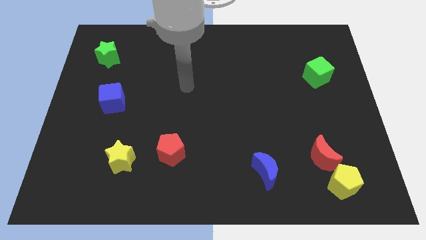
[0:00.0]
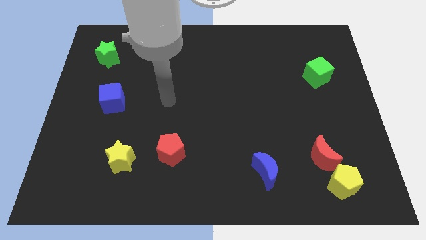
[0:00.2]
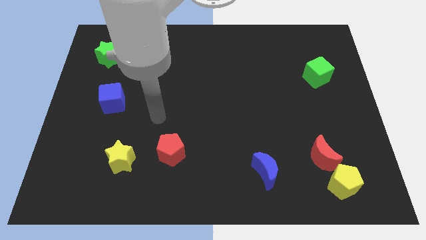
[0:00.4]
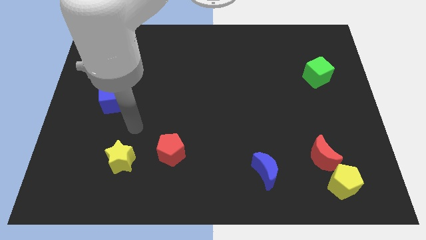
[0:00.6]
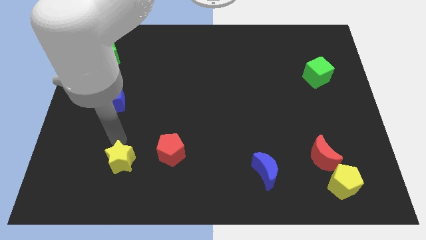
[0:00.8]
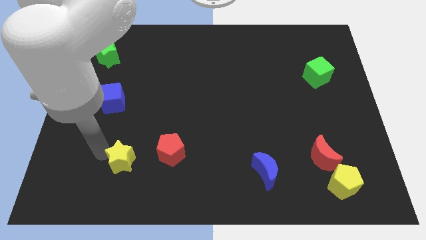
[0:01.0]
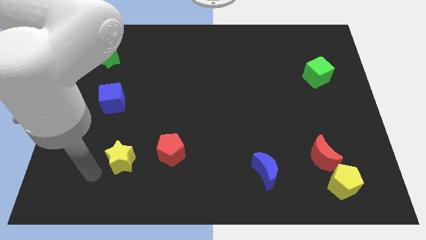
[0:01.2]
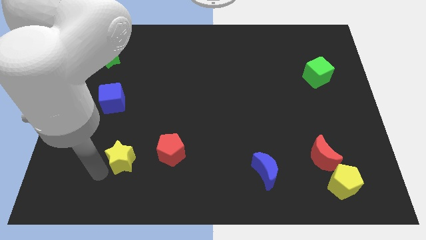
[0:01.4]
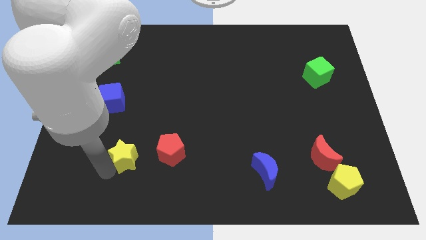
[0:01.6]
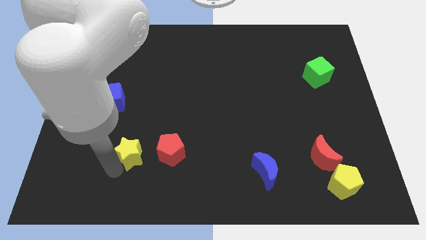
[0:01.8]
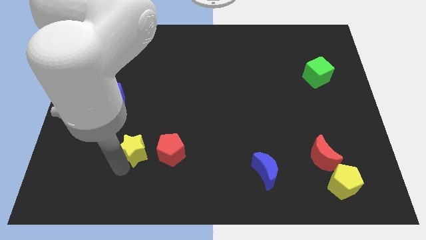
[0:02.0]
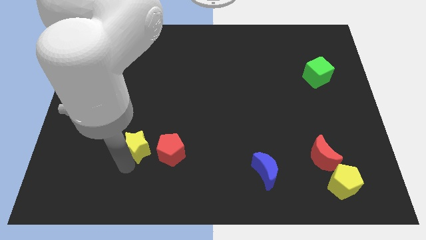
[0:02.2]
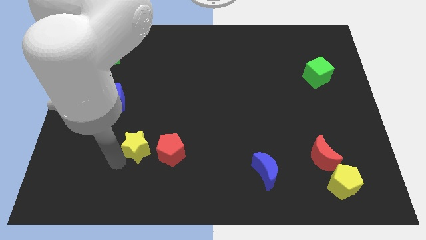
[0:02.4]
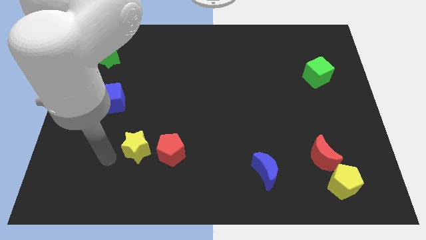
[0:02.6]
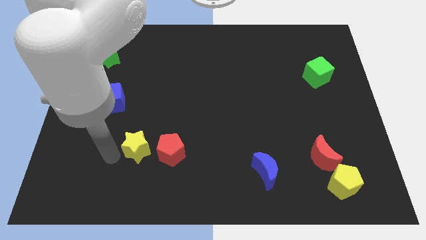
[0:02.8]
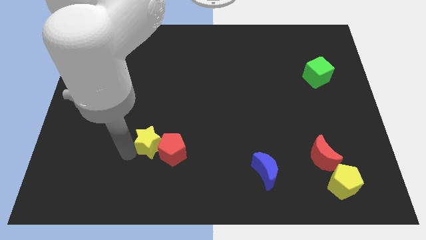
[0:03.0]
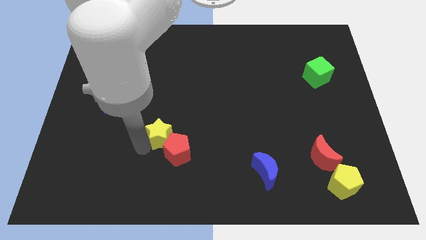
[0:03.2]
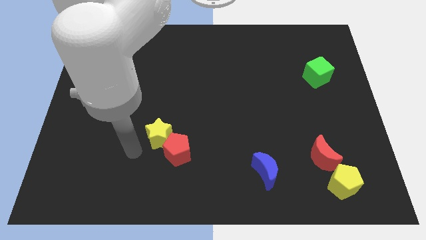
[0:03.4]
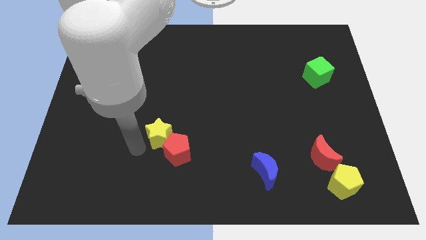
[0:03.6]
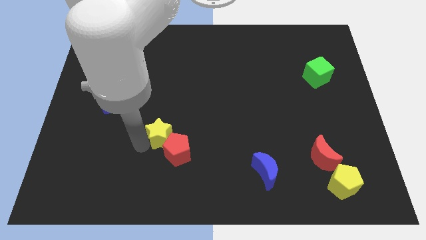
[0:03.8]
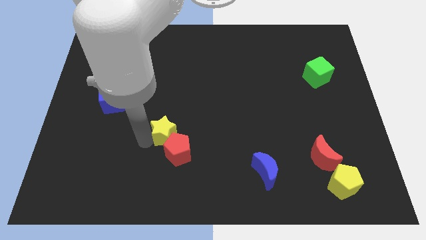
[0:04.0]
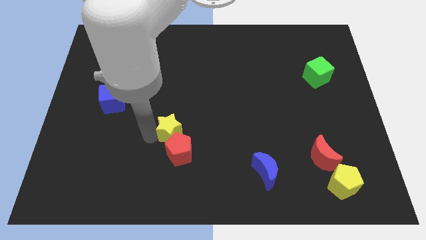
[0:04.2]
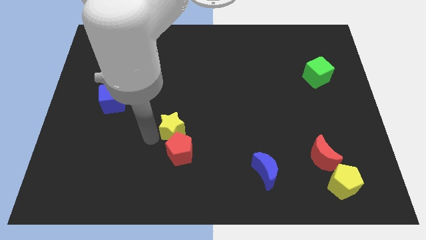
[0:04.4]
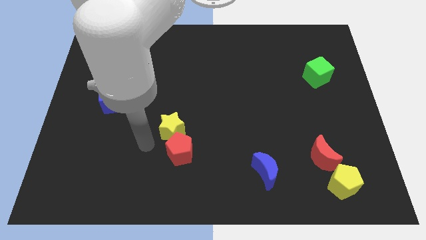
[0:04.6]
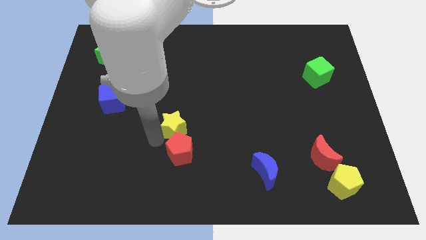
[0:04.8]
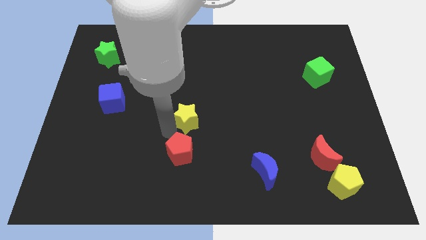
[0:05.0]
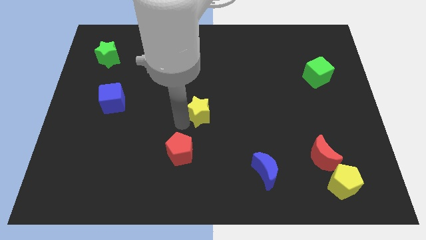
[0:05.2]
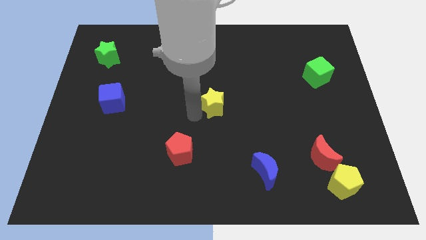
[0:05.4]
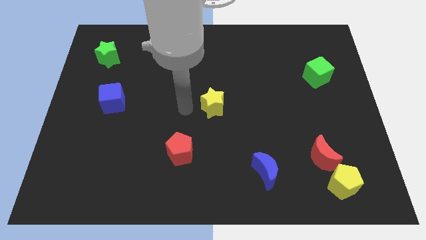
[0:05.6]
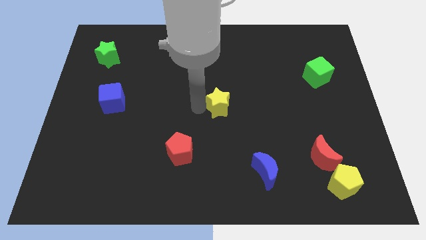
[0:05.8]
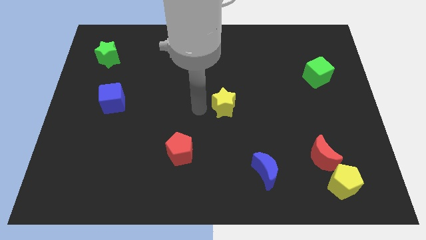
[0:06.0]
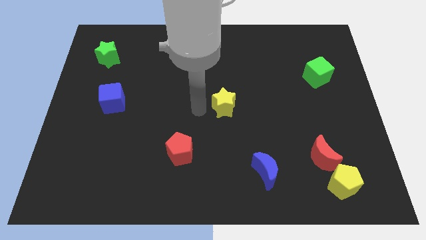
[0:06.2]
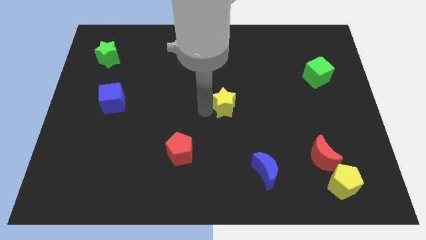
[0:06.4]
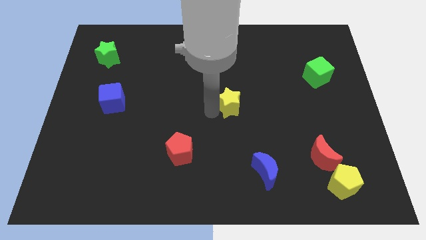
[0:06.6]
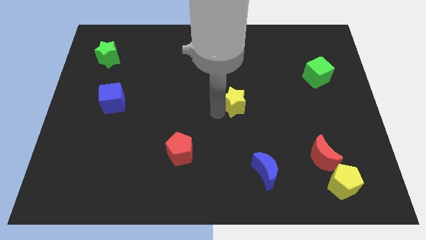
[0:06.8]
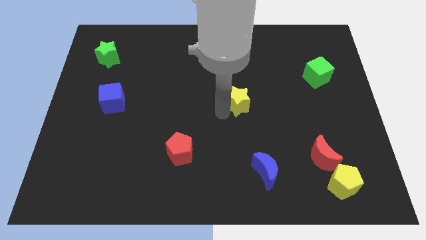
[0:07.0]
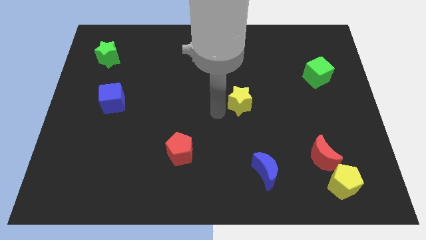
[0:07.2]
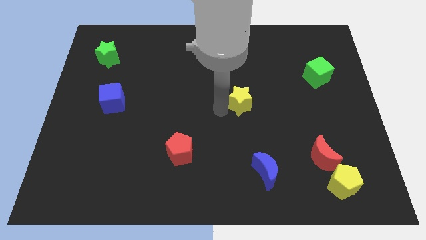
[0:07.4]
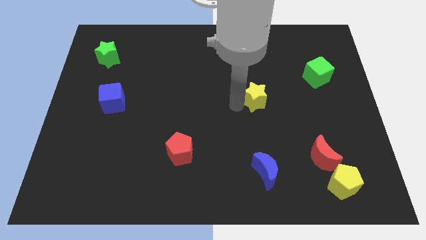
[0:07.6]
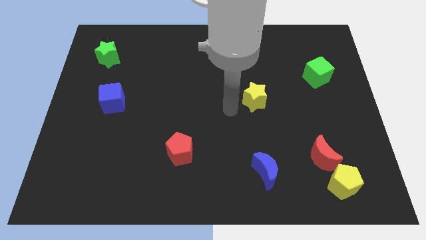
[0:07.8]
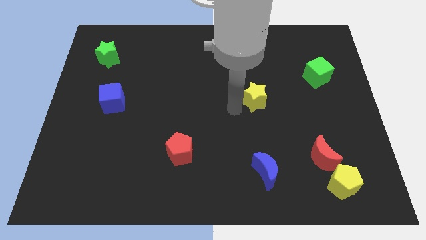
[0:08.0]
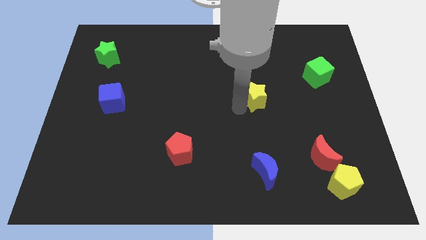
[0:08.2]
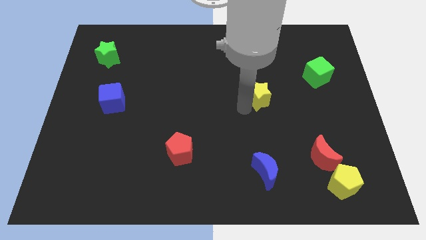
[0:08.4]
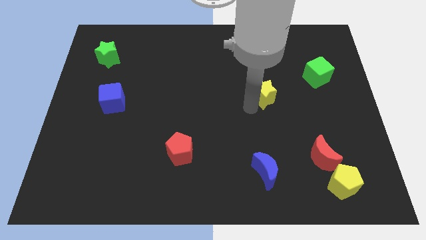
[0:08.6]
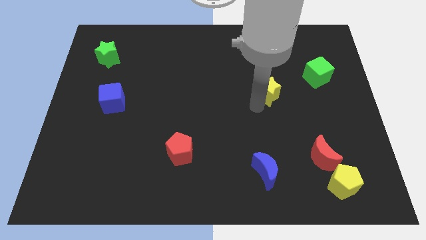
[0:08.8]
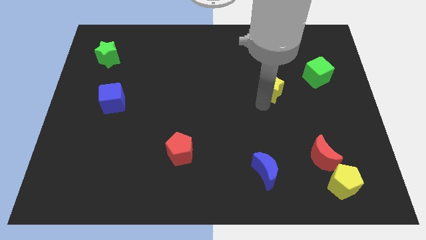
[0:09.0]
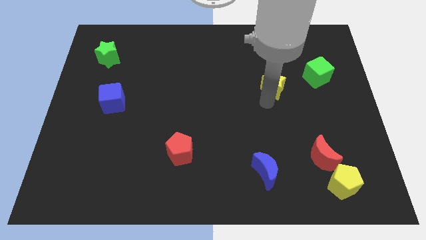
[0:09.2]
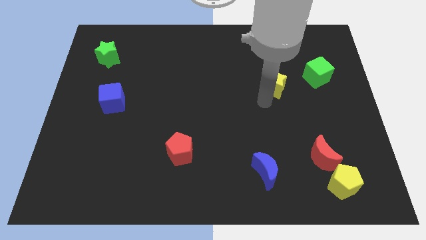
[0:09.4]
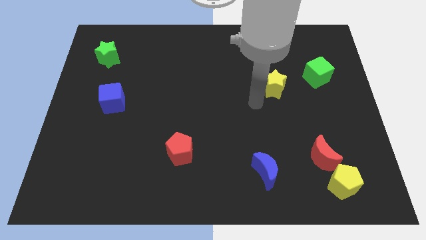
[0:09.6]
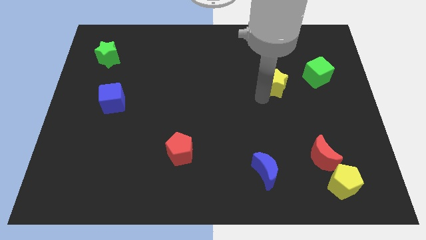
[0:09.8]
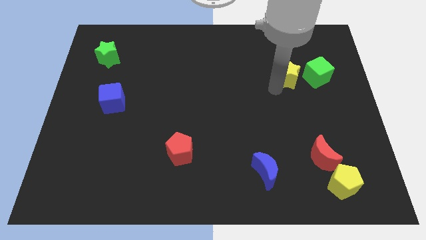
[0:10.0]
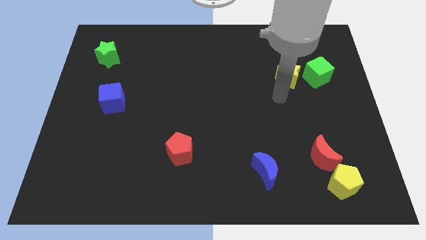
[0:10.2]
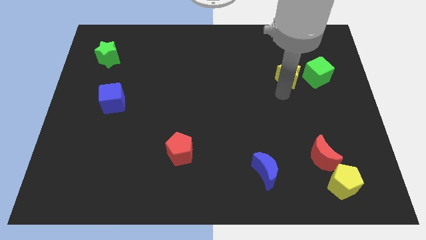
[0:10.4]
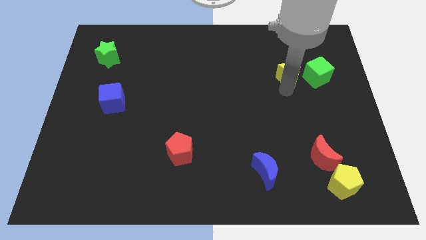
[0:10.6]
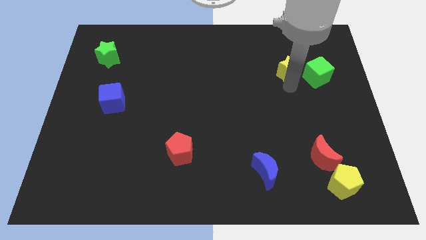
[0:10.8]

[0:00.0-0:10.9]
move the yellow star to the top left of the green cube

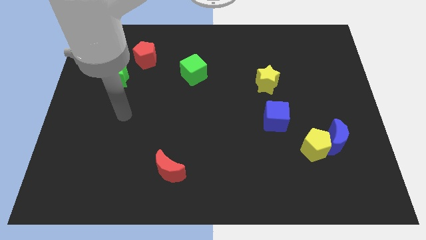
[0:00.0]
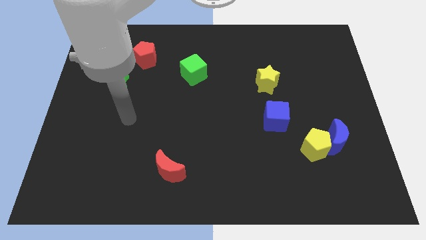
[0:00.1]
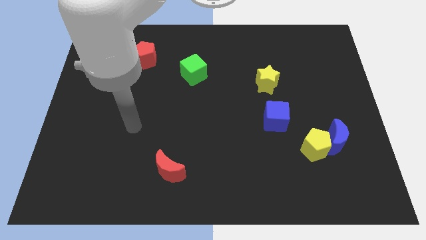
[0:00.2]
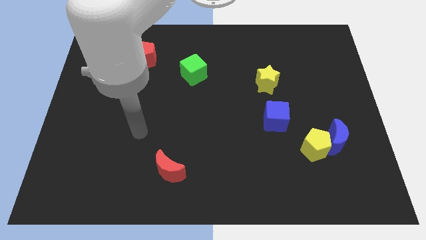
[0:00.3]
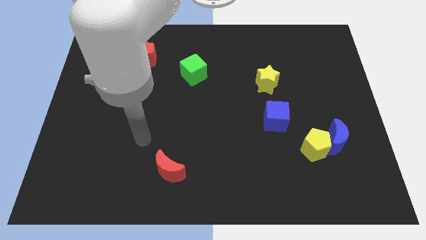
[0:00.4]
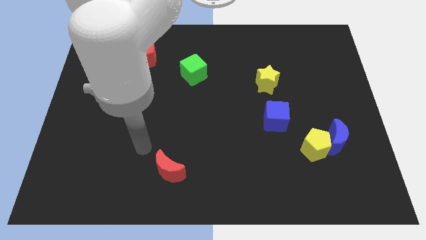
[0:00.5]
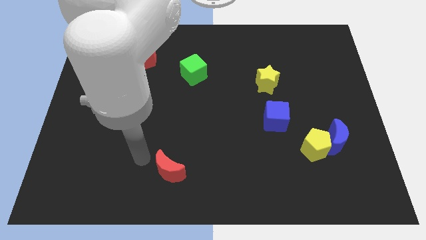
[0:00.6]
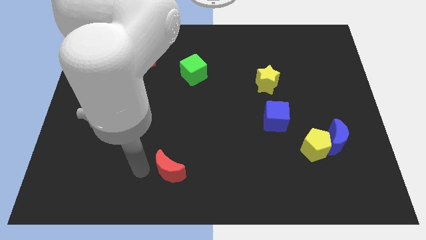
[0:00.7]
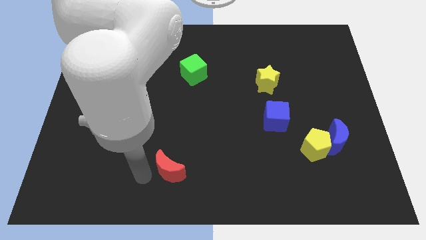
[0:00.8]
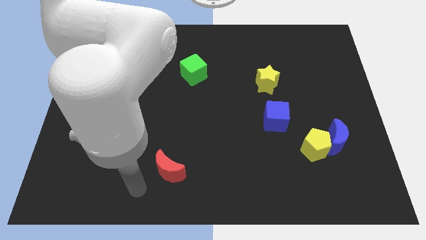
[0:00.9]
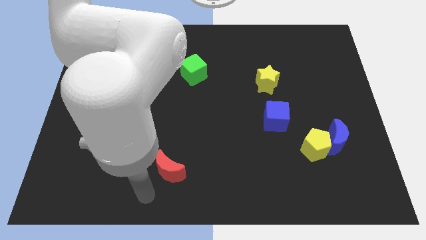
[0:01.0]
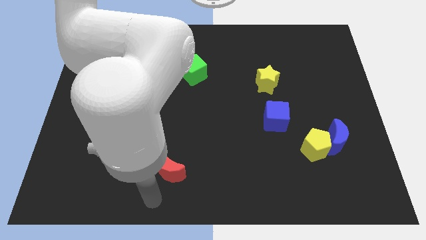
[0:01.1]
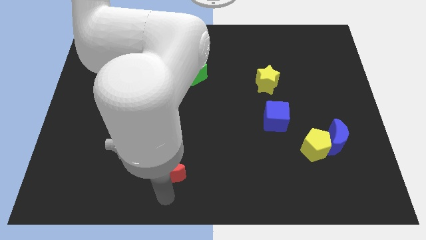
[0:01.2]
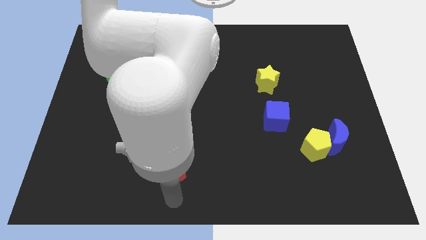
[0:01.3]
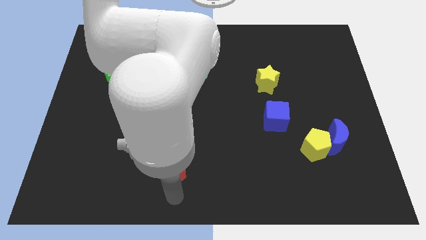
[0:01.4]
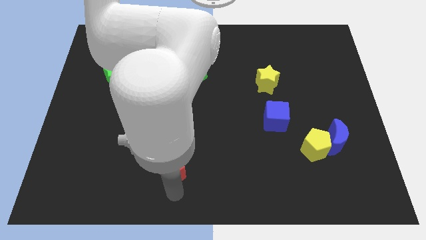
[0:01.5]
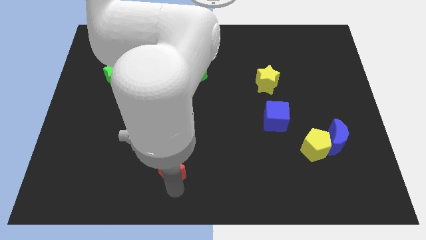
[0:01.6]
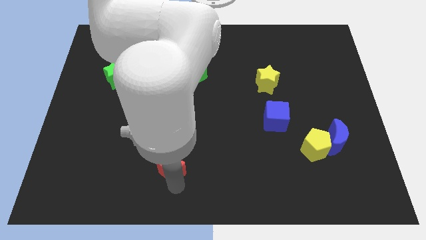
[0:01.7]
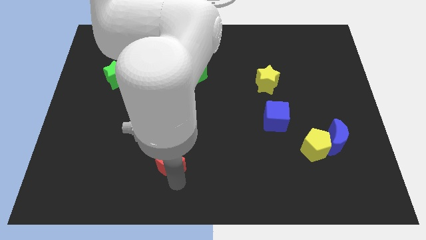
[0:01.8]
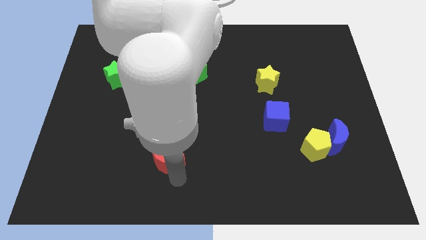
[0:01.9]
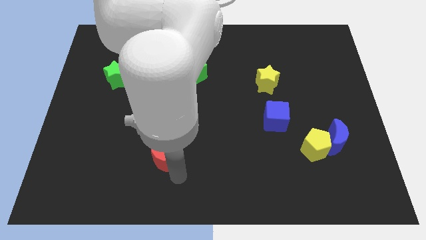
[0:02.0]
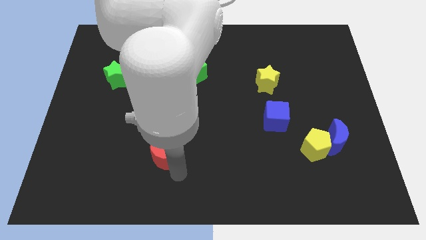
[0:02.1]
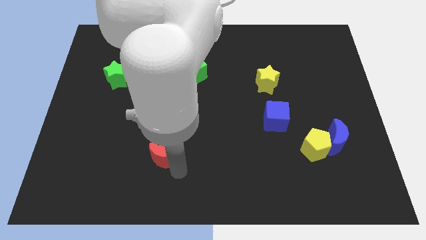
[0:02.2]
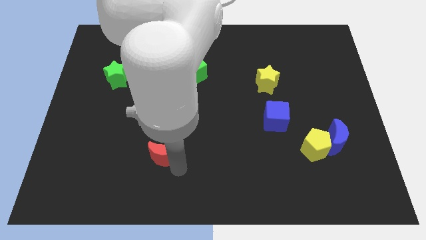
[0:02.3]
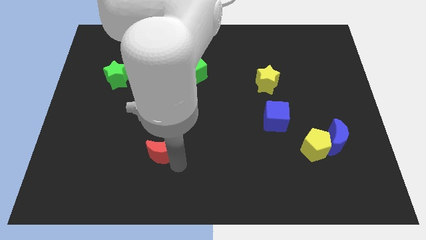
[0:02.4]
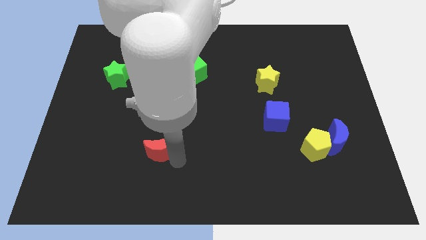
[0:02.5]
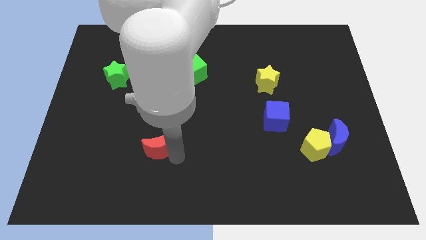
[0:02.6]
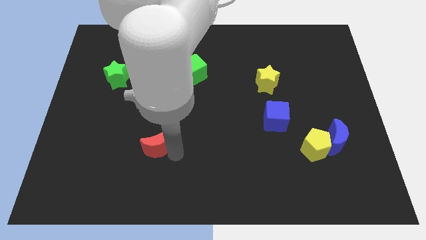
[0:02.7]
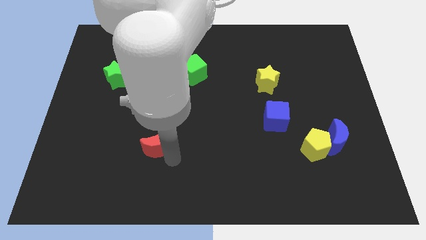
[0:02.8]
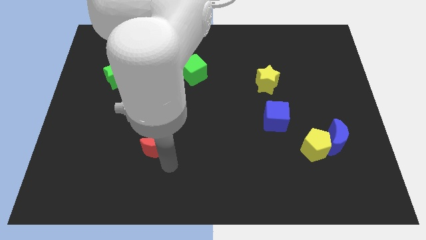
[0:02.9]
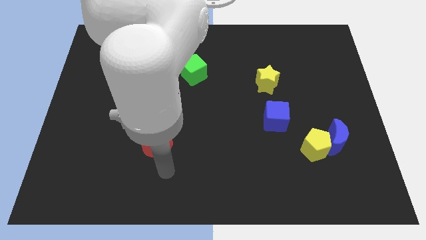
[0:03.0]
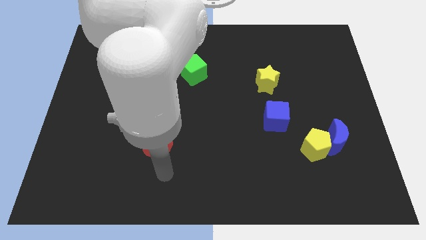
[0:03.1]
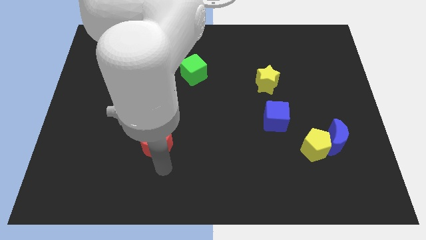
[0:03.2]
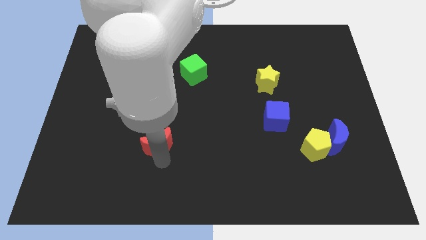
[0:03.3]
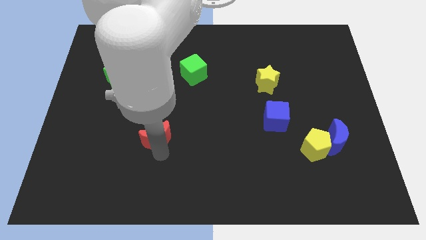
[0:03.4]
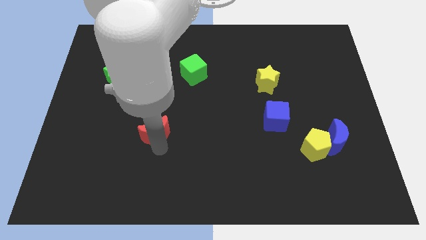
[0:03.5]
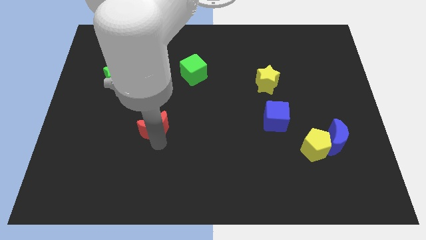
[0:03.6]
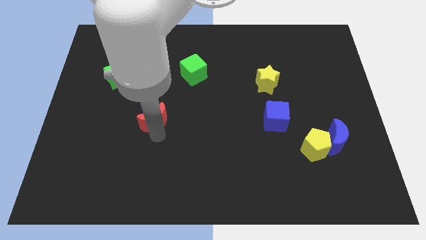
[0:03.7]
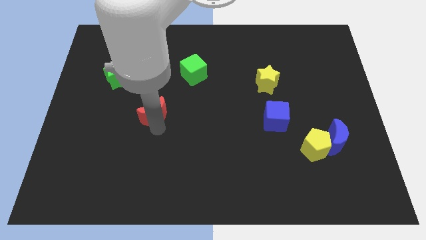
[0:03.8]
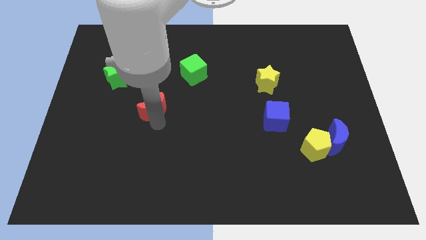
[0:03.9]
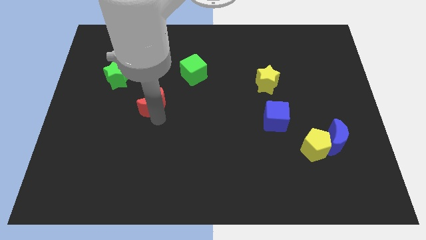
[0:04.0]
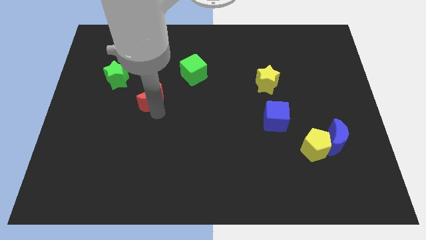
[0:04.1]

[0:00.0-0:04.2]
put the red moon to the bottom side of the red pentagon
